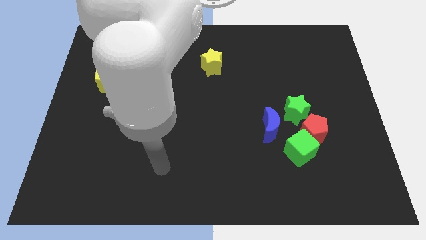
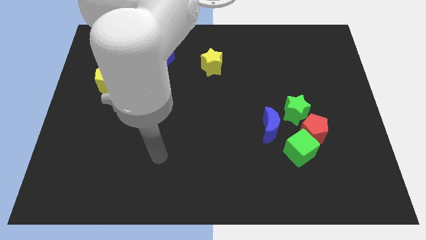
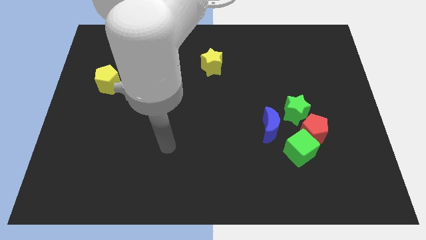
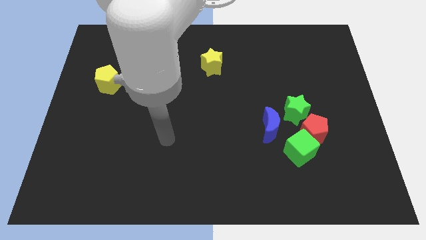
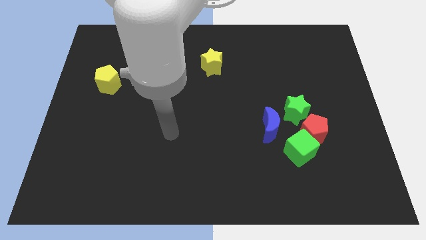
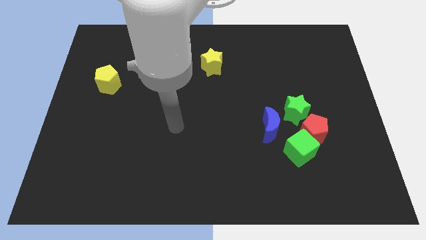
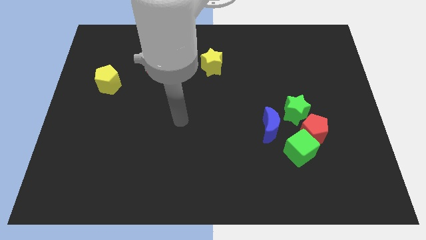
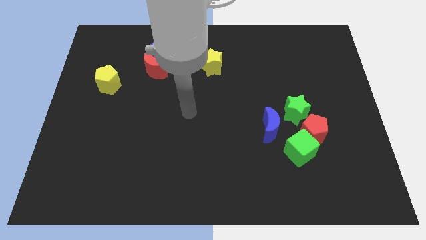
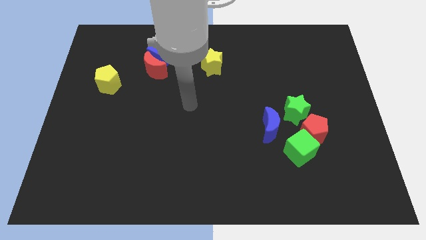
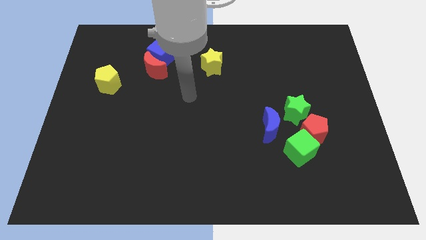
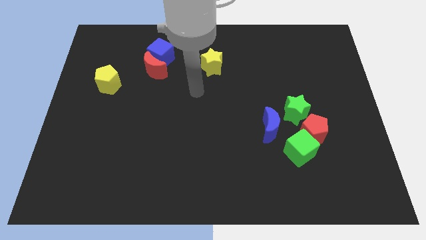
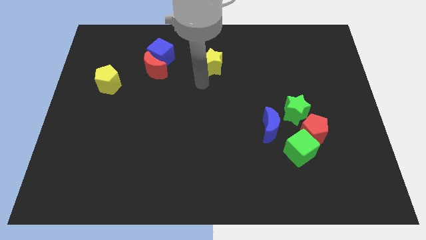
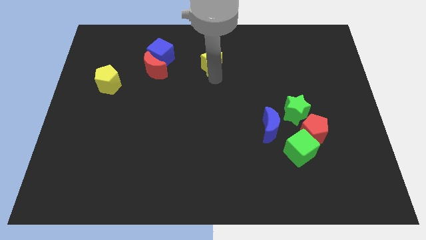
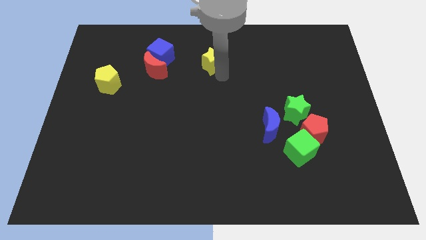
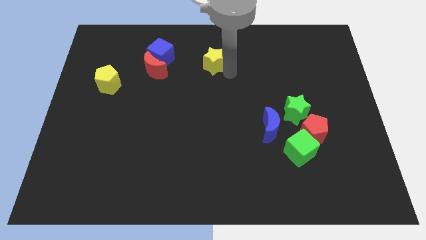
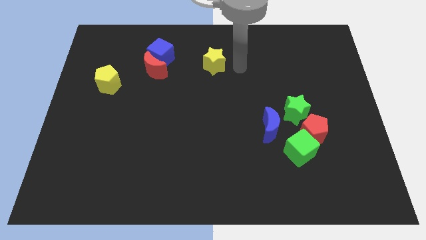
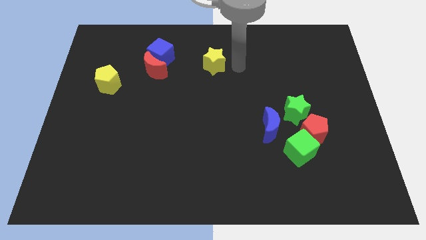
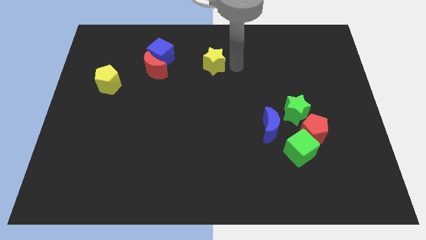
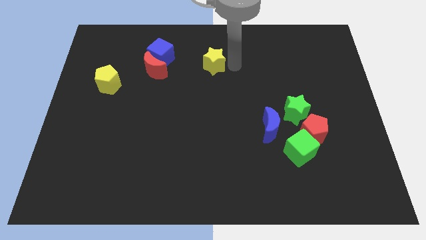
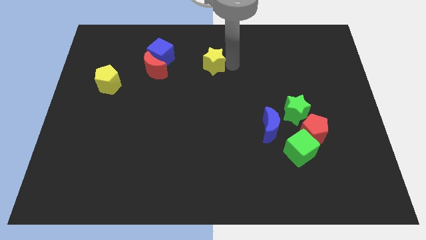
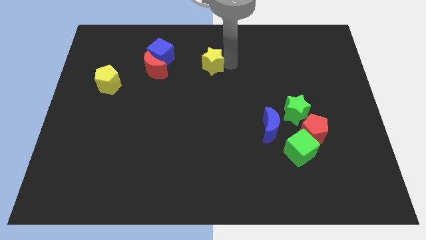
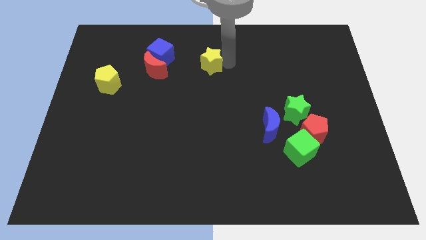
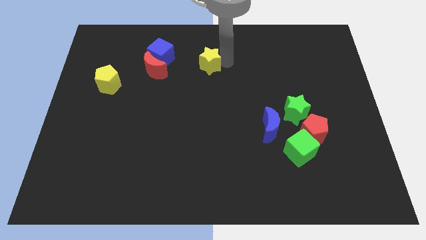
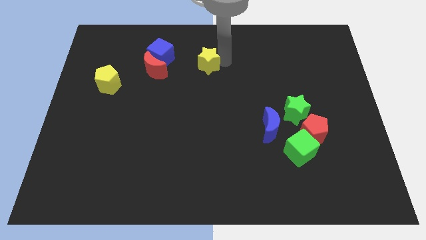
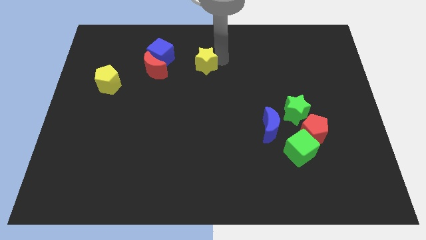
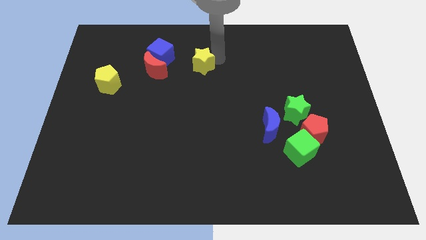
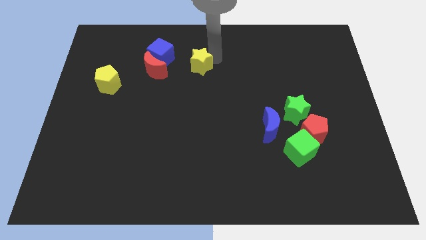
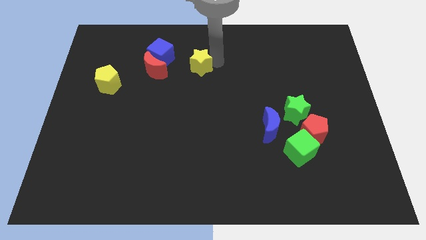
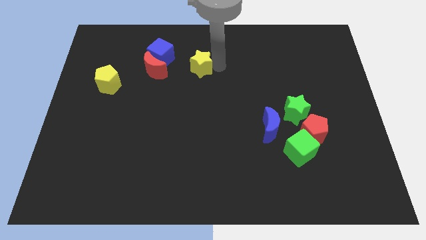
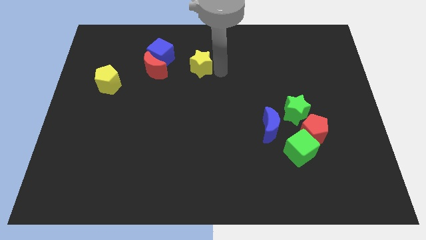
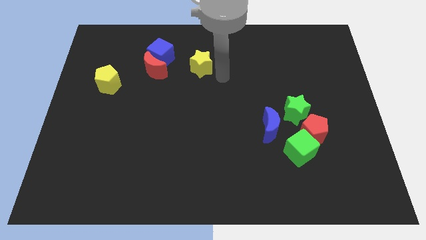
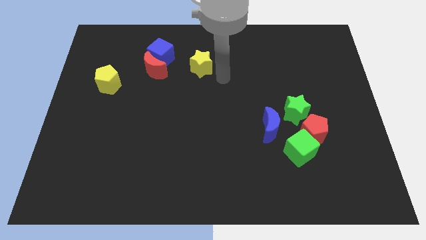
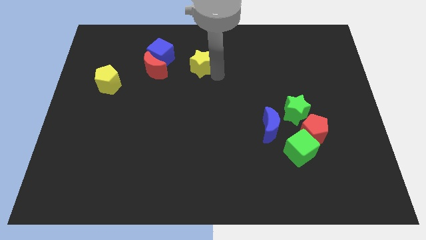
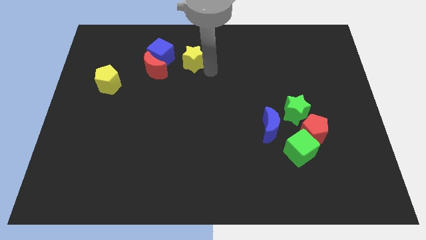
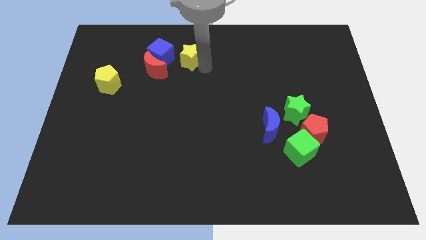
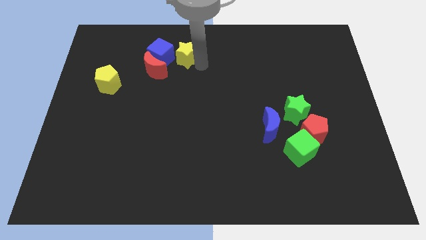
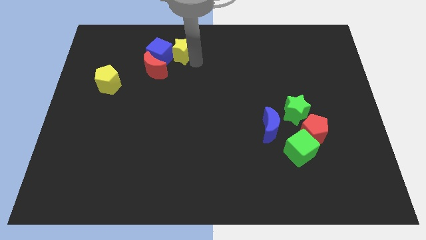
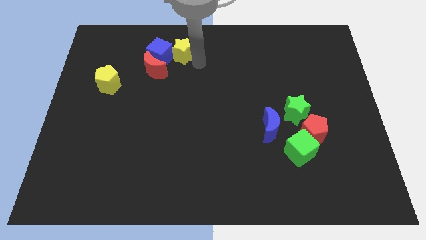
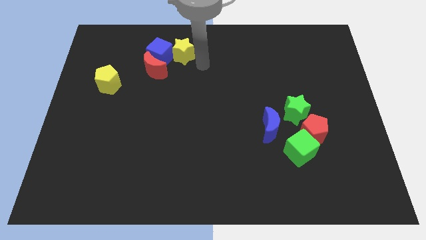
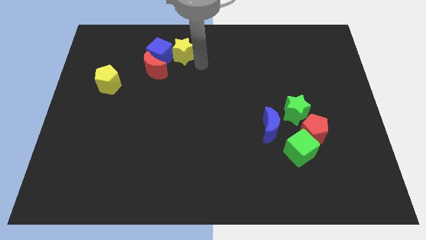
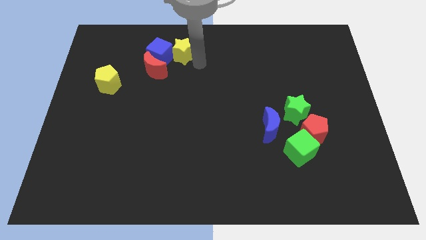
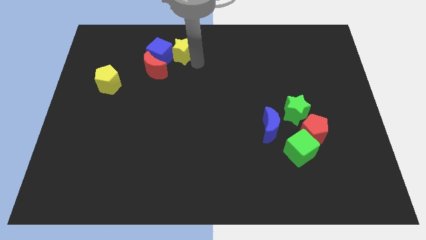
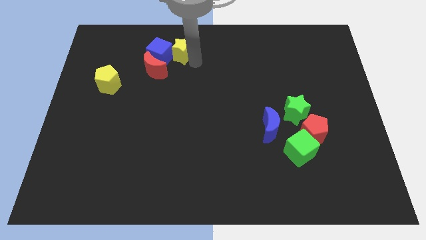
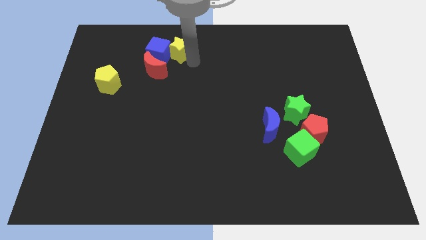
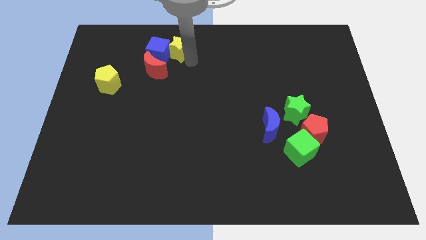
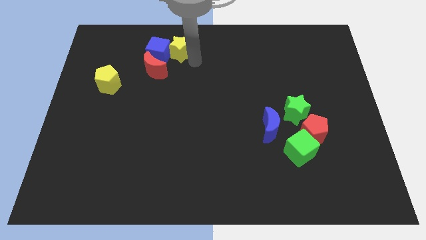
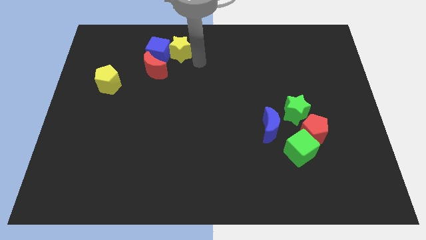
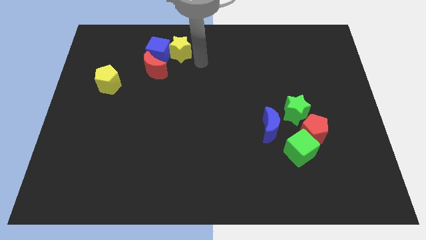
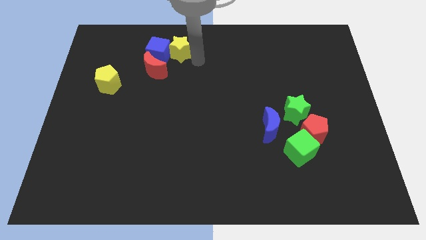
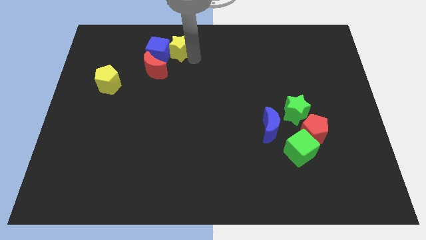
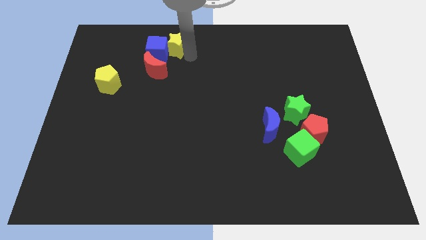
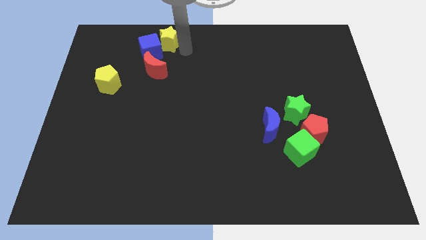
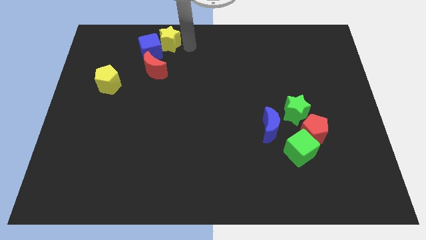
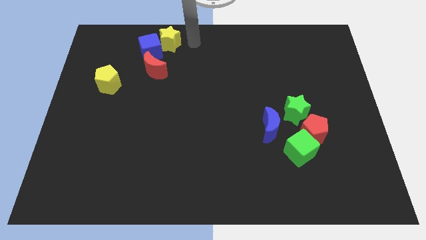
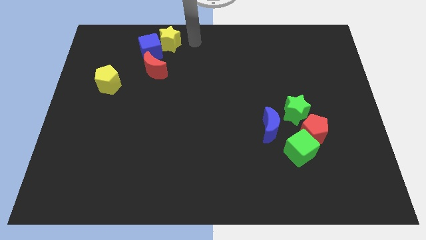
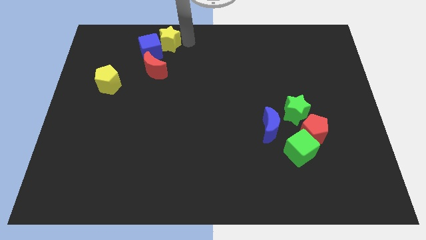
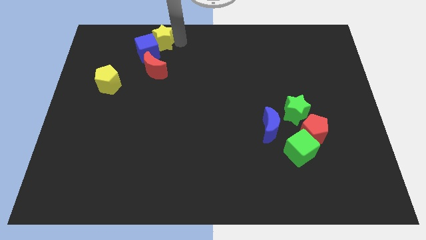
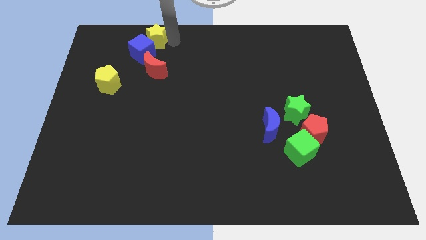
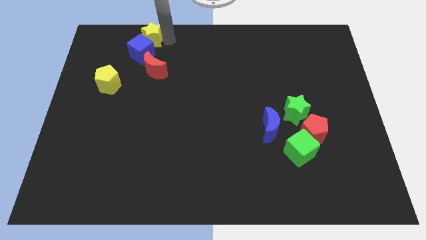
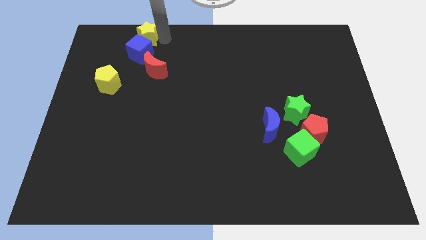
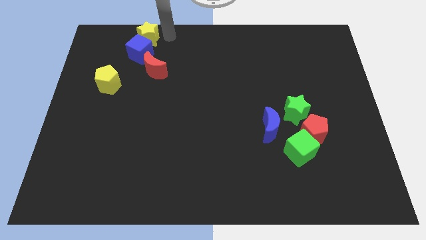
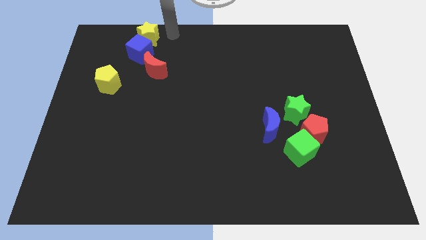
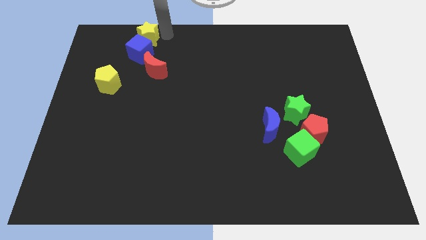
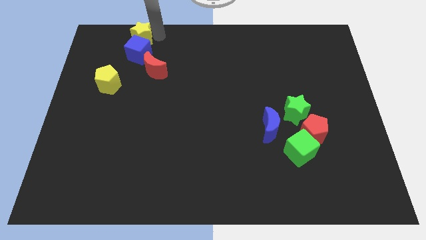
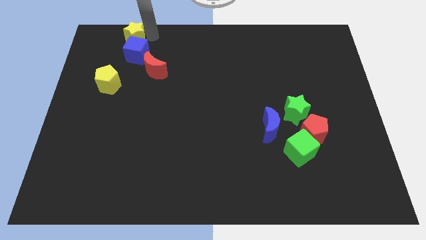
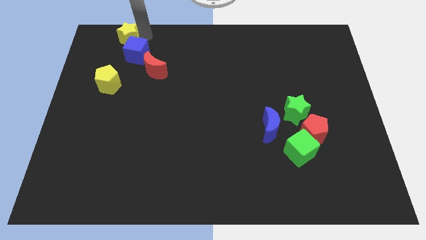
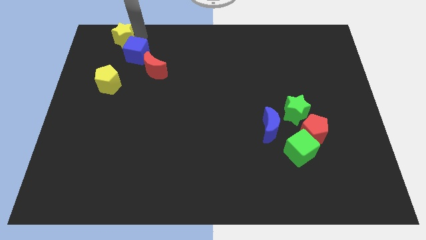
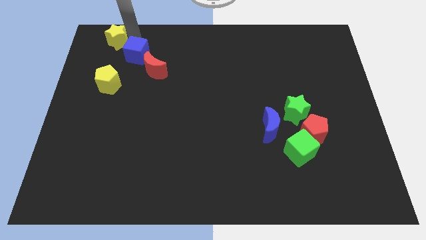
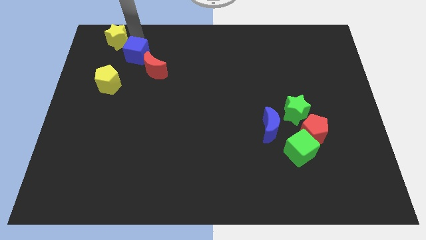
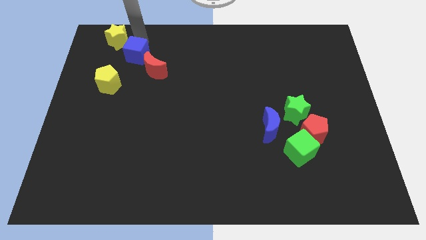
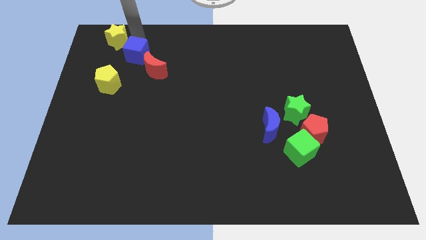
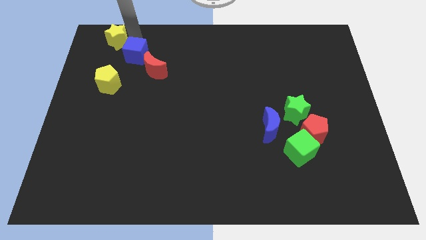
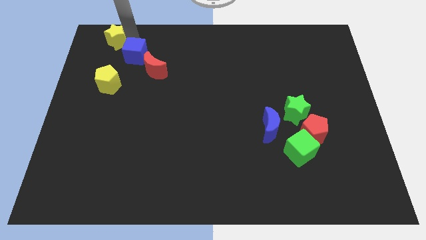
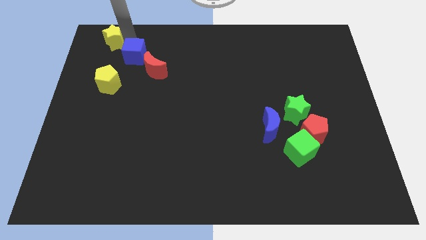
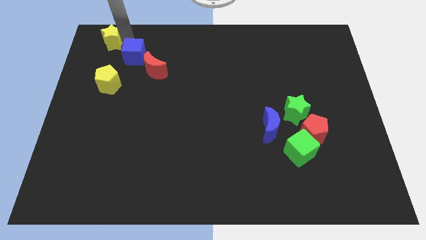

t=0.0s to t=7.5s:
push the yellow star to the top left of the board
